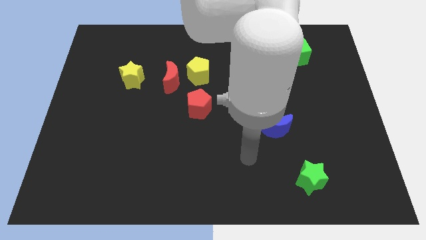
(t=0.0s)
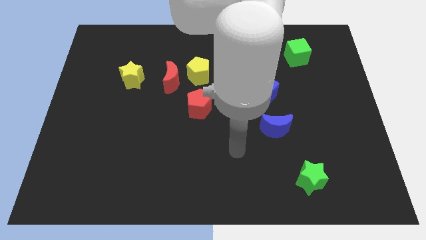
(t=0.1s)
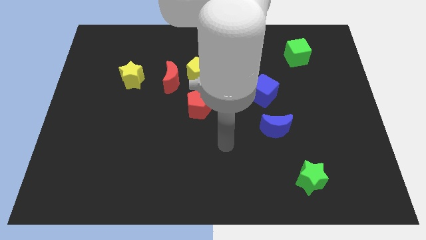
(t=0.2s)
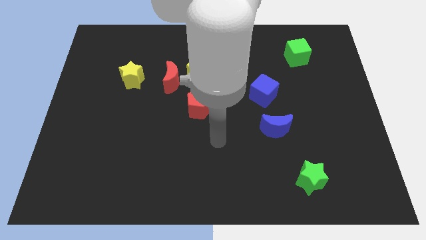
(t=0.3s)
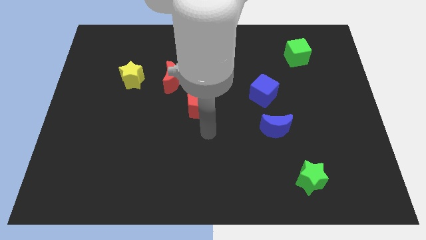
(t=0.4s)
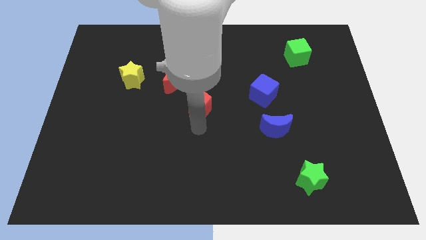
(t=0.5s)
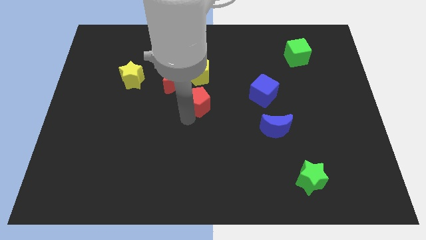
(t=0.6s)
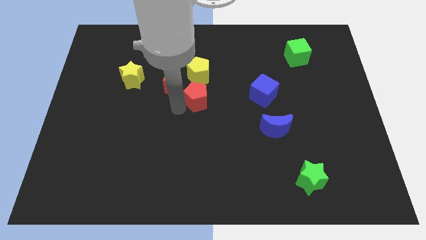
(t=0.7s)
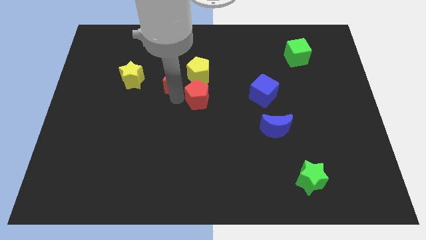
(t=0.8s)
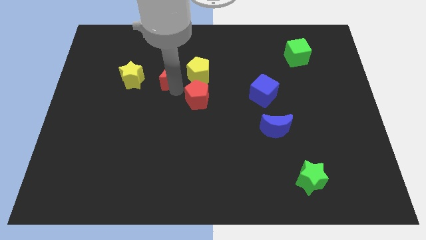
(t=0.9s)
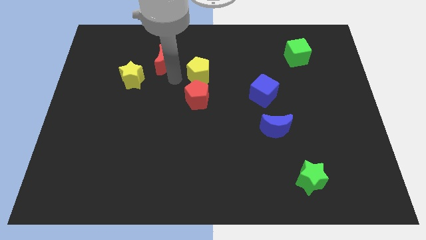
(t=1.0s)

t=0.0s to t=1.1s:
move the yellow pentagon away from the red moon

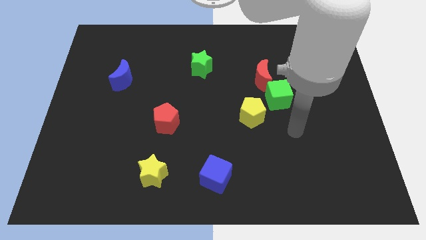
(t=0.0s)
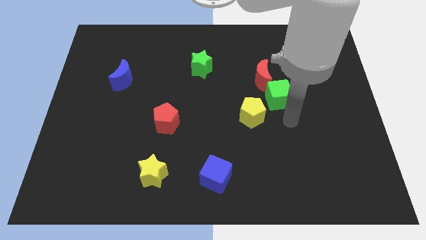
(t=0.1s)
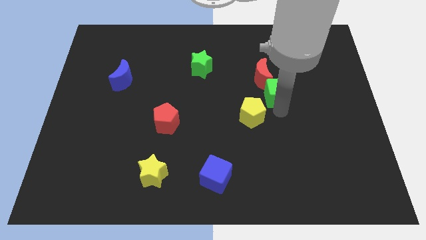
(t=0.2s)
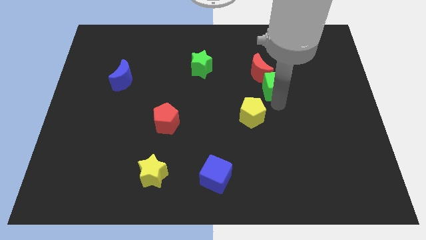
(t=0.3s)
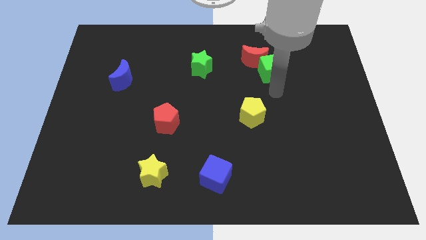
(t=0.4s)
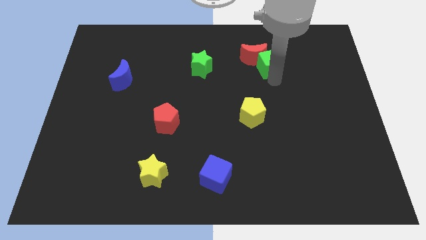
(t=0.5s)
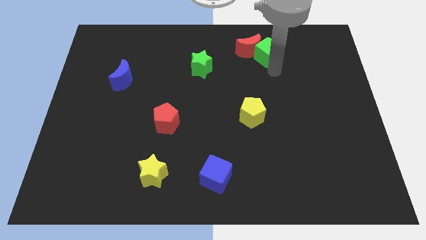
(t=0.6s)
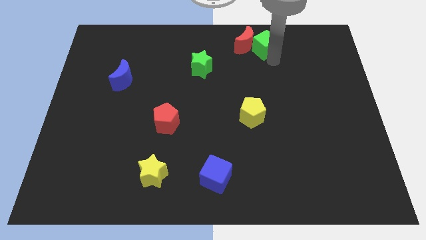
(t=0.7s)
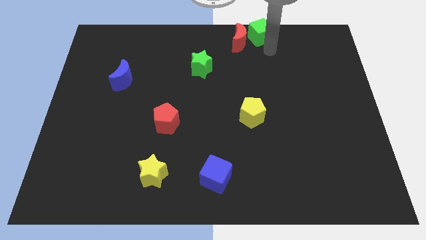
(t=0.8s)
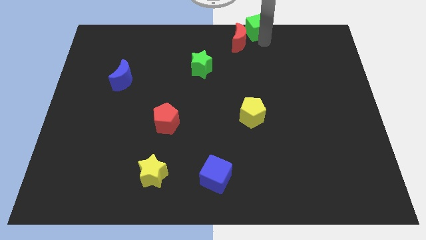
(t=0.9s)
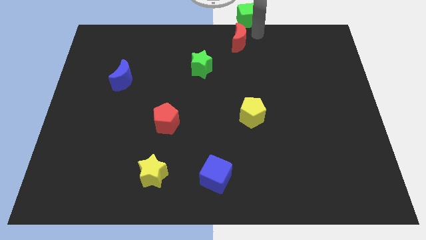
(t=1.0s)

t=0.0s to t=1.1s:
move the red moon away from the green cube

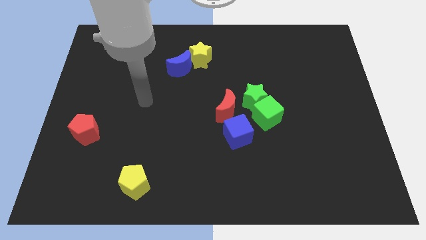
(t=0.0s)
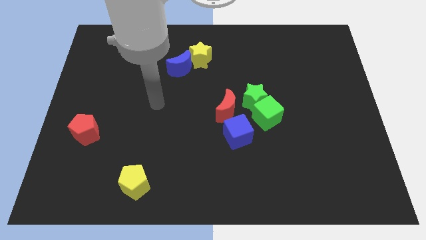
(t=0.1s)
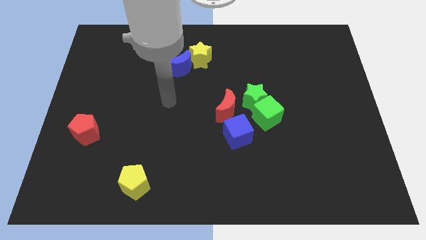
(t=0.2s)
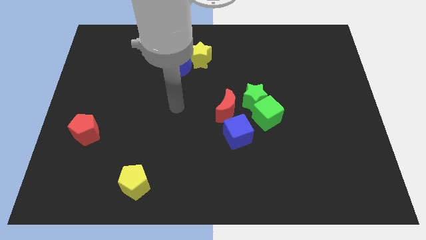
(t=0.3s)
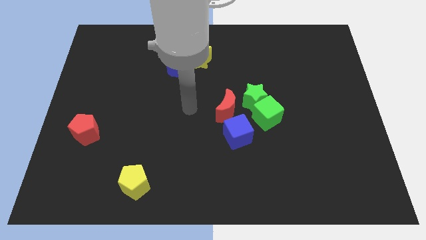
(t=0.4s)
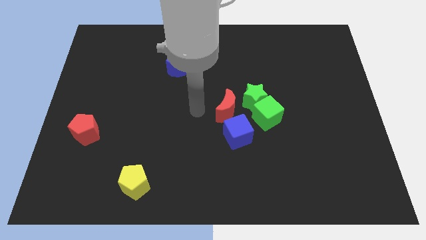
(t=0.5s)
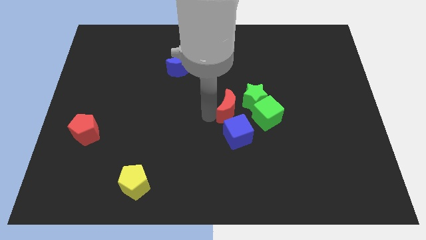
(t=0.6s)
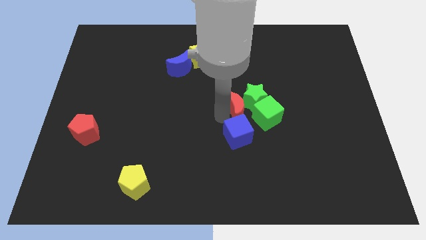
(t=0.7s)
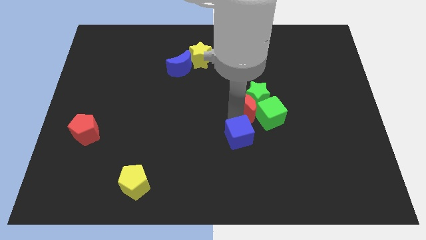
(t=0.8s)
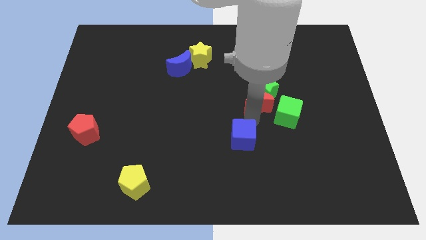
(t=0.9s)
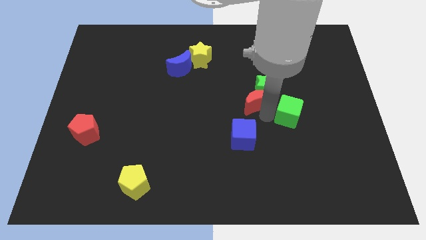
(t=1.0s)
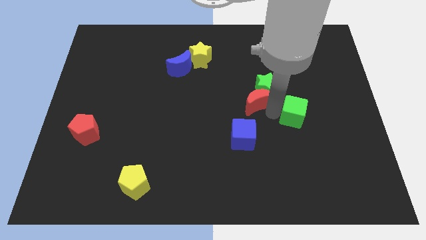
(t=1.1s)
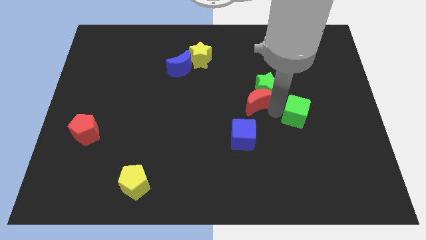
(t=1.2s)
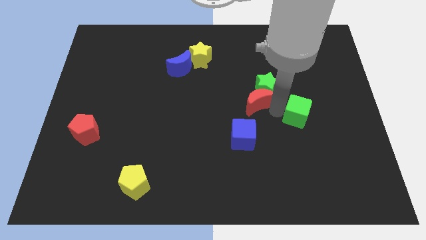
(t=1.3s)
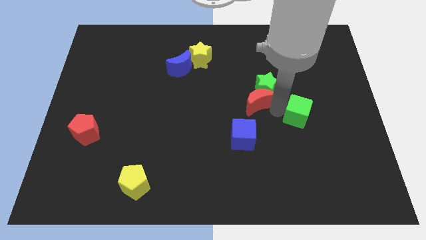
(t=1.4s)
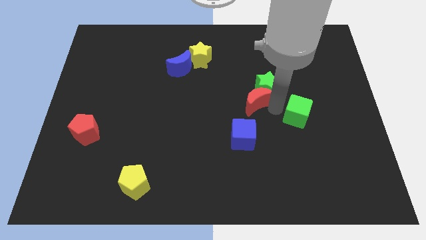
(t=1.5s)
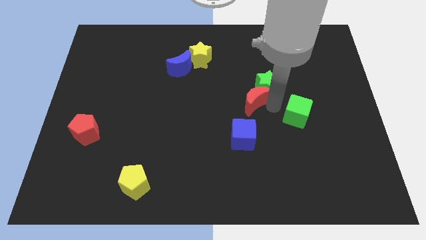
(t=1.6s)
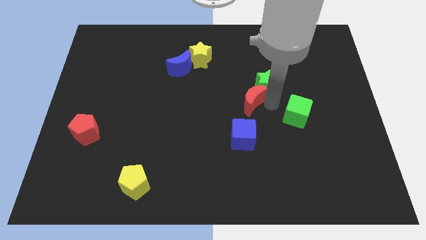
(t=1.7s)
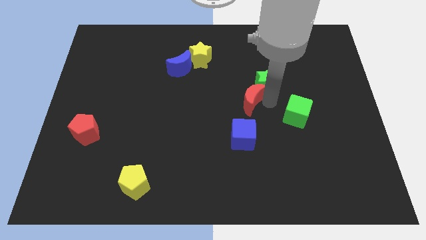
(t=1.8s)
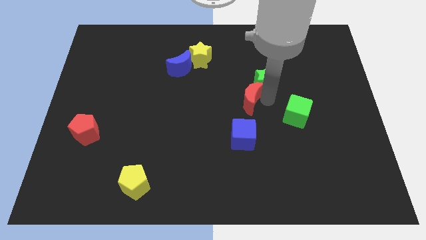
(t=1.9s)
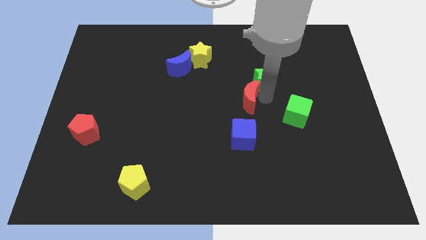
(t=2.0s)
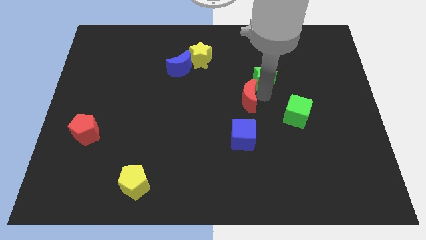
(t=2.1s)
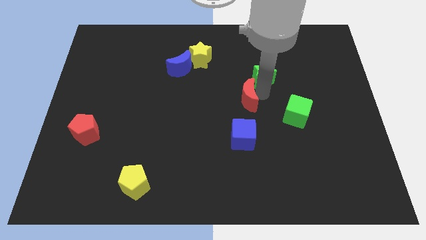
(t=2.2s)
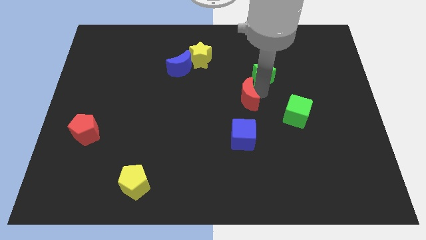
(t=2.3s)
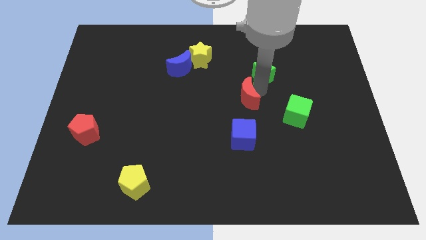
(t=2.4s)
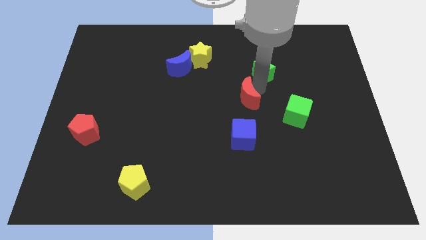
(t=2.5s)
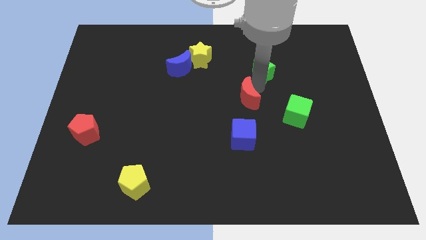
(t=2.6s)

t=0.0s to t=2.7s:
pull the green star apart from the green cube and red moon

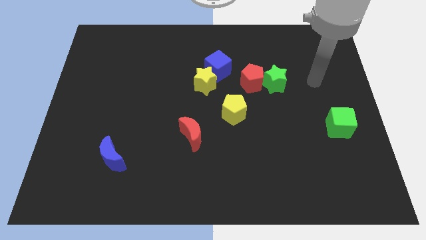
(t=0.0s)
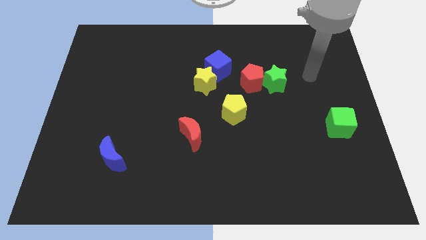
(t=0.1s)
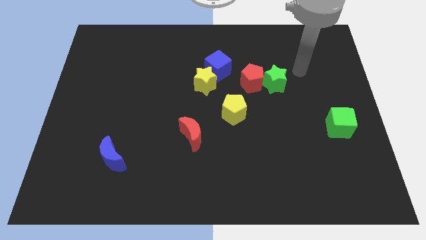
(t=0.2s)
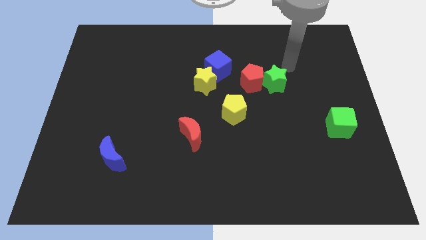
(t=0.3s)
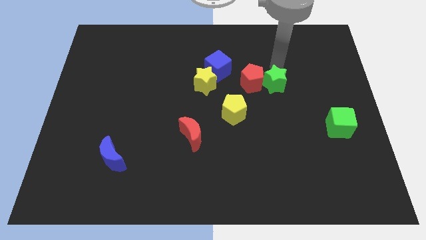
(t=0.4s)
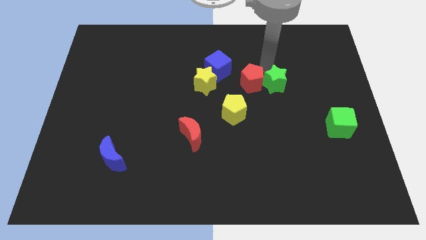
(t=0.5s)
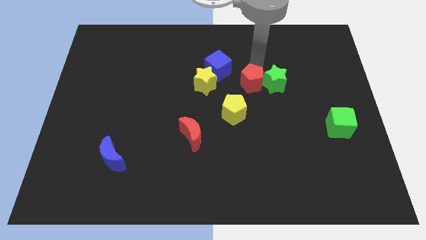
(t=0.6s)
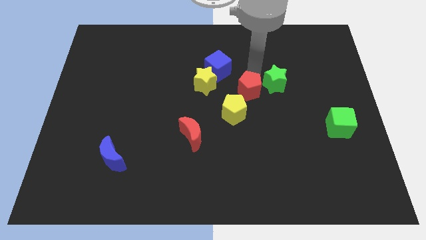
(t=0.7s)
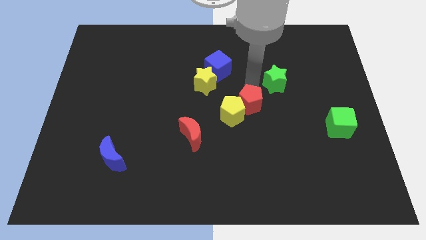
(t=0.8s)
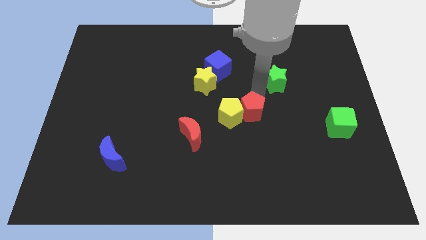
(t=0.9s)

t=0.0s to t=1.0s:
move the green star away from the red pentagon

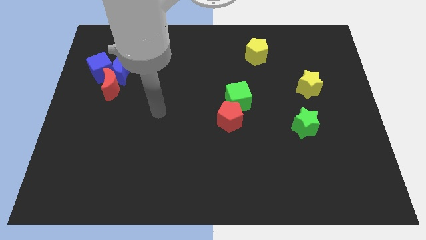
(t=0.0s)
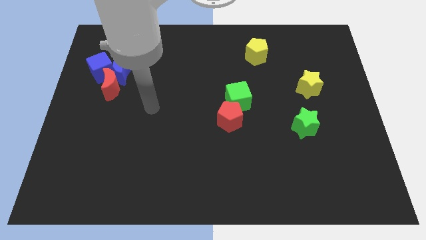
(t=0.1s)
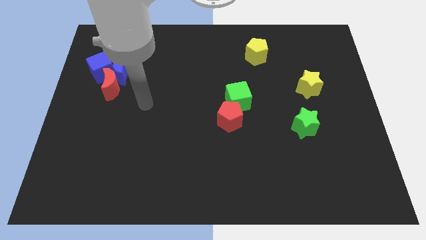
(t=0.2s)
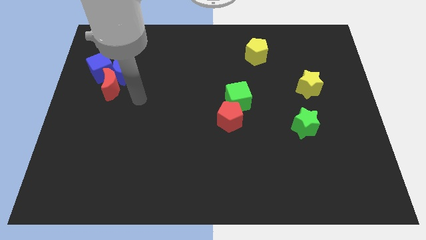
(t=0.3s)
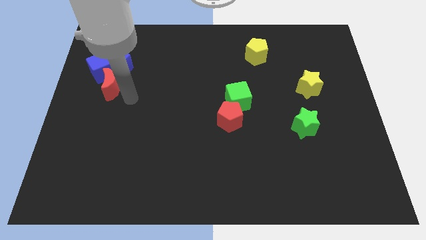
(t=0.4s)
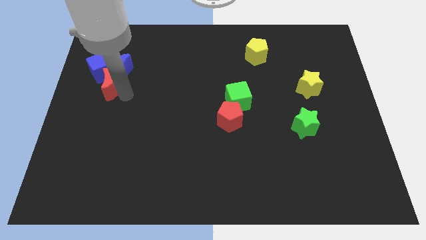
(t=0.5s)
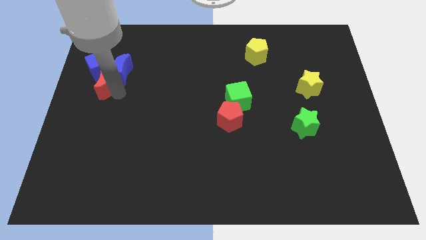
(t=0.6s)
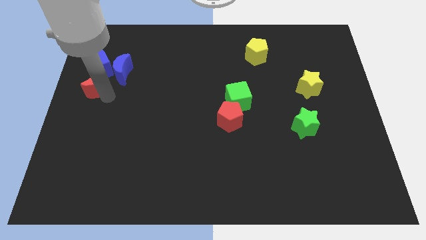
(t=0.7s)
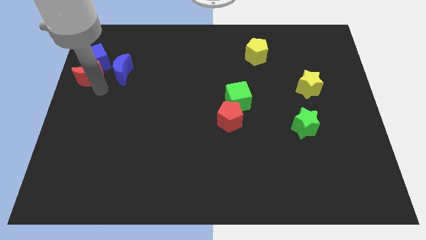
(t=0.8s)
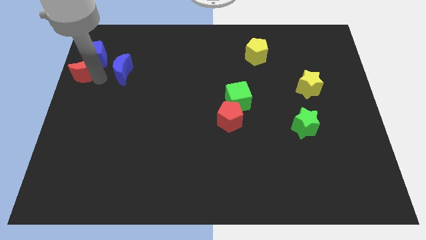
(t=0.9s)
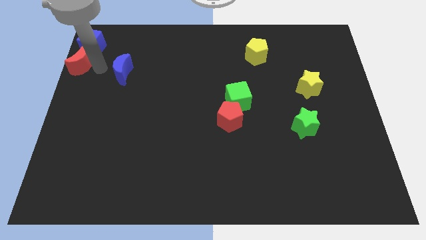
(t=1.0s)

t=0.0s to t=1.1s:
move the blue moon away from the blue cube and red moon

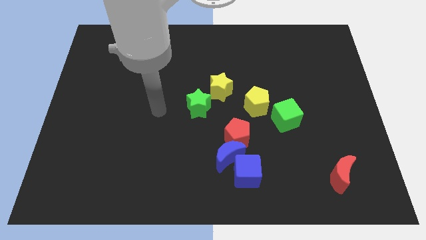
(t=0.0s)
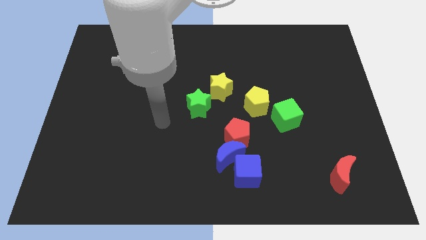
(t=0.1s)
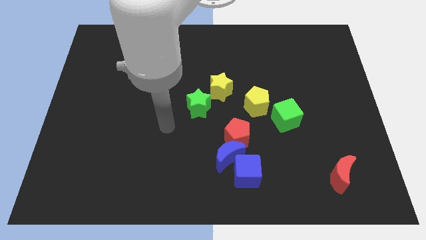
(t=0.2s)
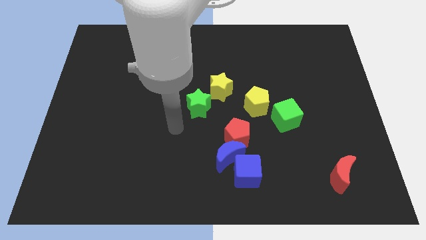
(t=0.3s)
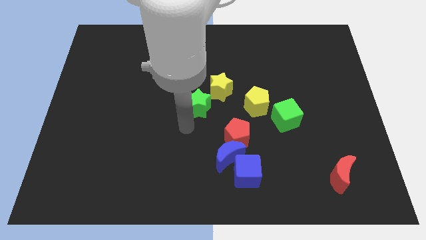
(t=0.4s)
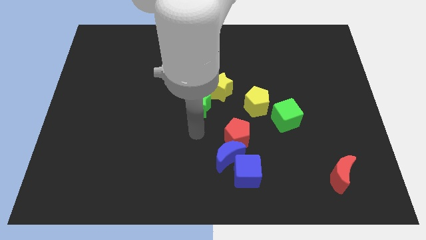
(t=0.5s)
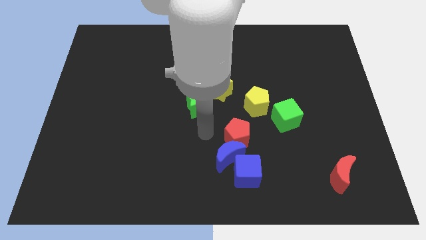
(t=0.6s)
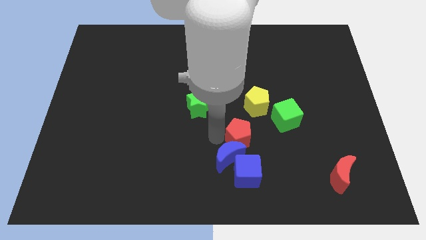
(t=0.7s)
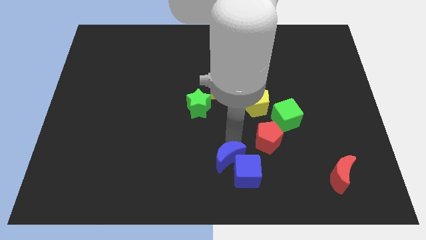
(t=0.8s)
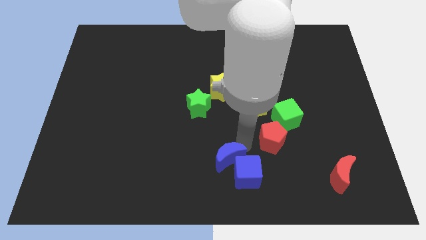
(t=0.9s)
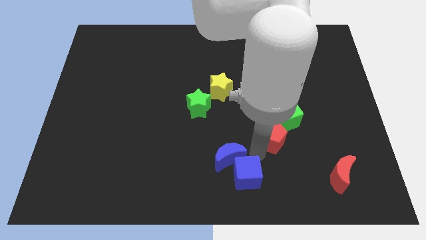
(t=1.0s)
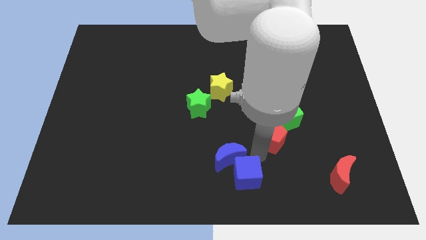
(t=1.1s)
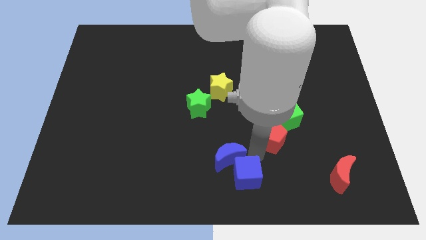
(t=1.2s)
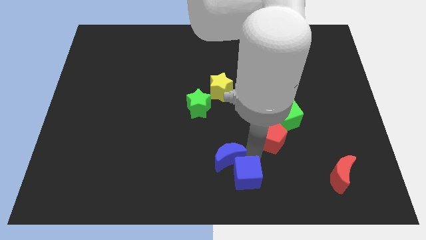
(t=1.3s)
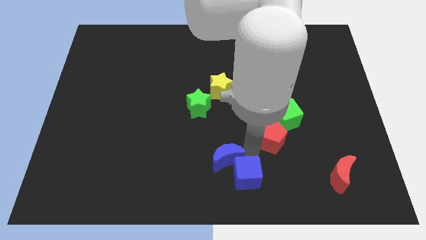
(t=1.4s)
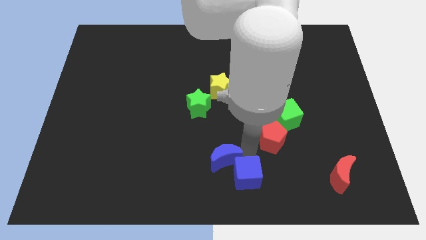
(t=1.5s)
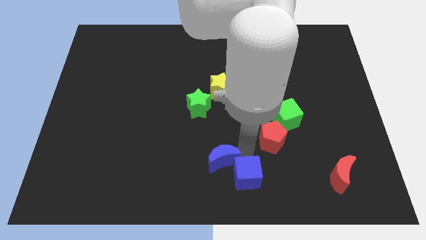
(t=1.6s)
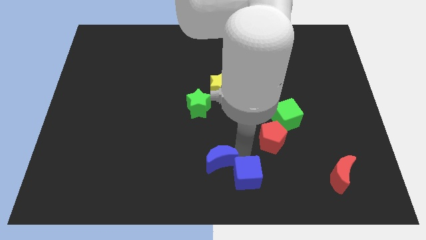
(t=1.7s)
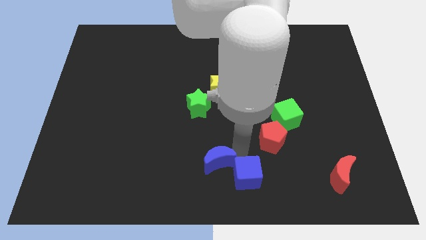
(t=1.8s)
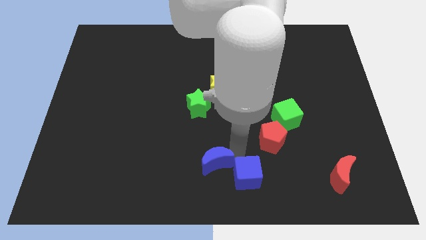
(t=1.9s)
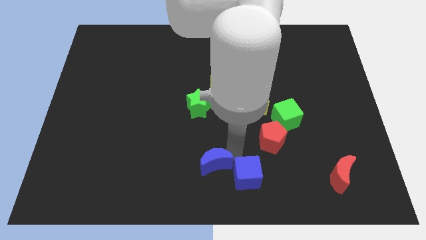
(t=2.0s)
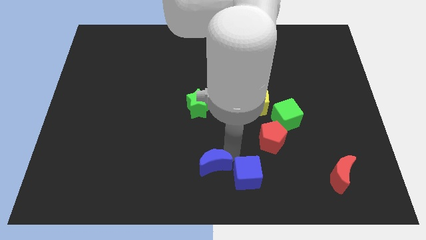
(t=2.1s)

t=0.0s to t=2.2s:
pull the blue moon apart from the blue cube and red pentagon
